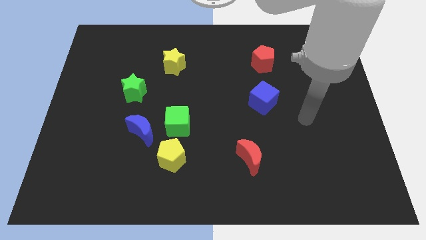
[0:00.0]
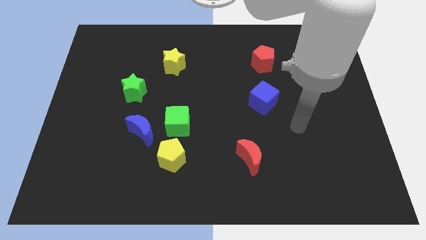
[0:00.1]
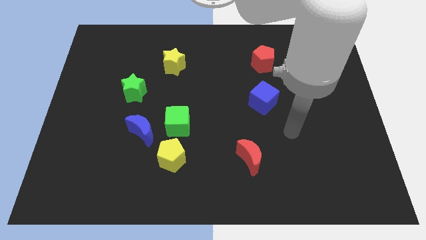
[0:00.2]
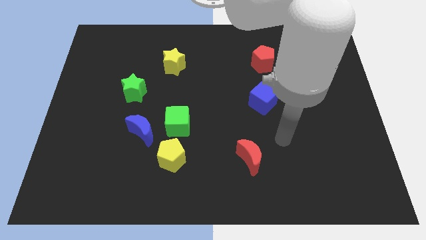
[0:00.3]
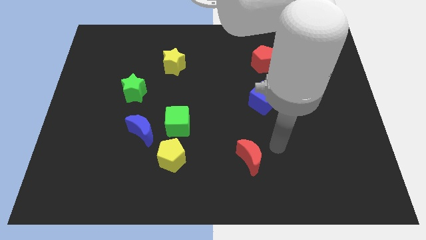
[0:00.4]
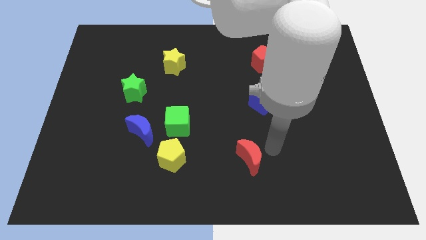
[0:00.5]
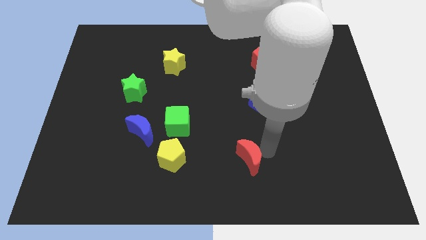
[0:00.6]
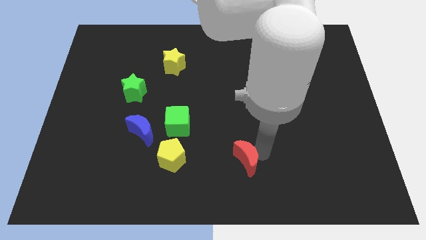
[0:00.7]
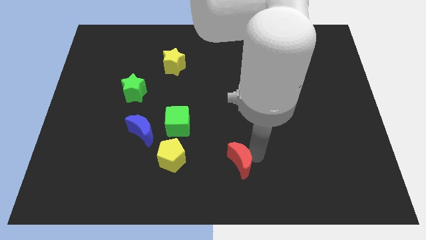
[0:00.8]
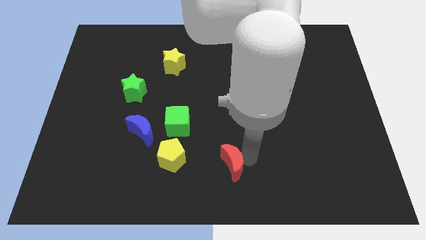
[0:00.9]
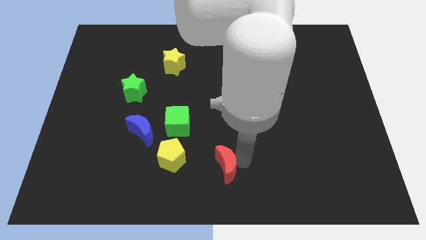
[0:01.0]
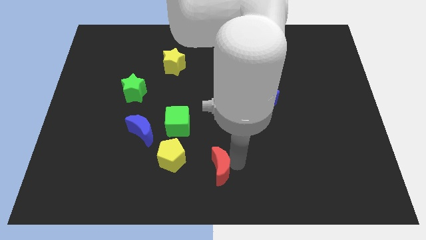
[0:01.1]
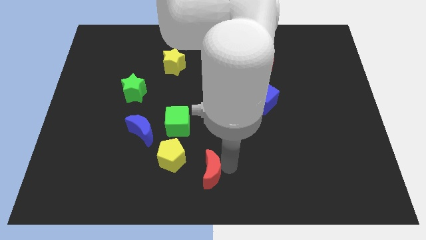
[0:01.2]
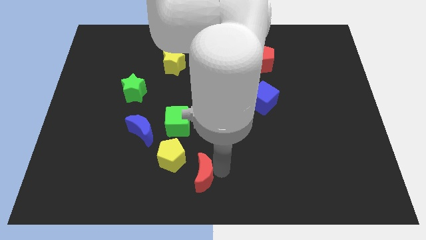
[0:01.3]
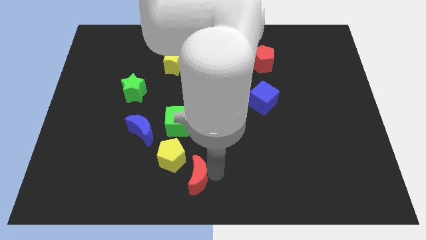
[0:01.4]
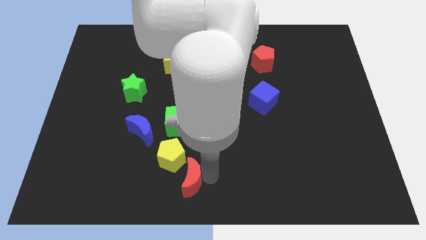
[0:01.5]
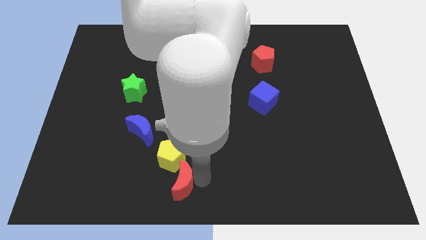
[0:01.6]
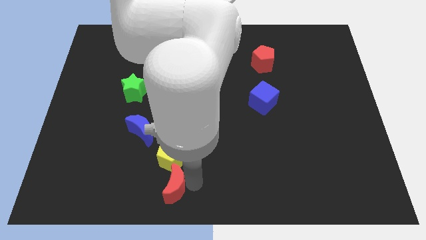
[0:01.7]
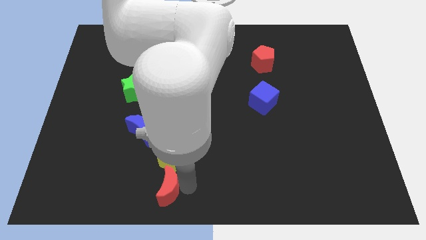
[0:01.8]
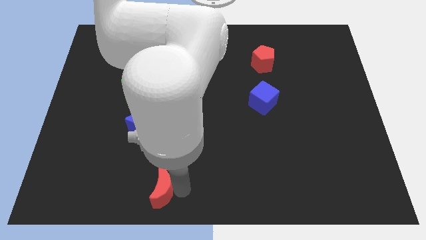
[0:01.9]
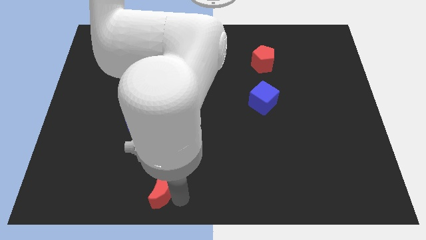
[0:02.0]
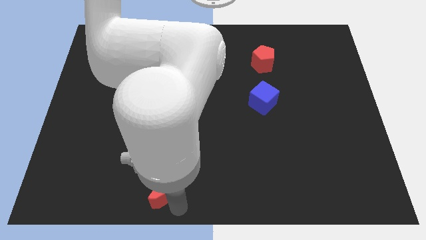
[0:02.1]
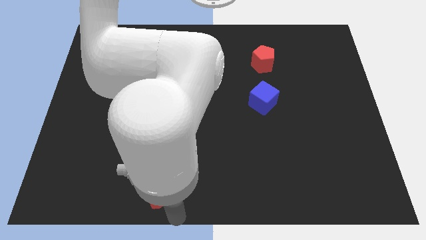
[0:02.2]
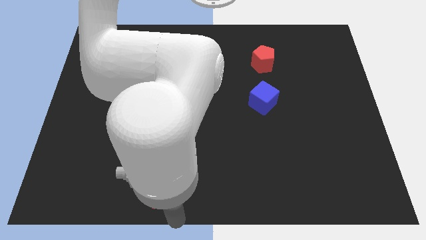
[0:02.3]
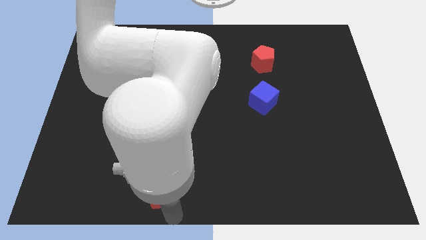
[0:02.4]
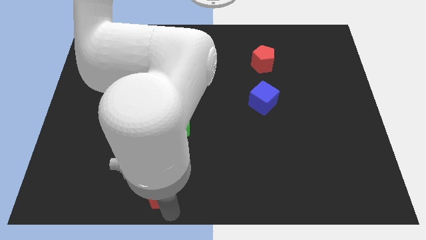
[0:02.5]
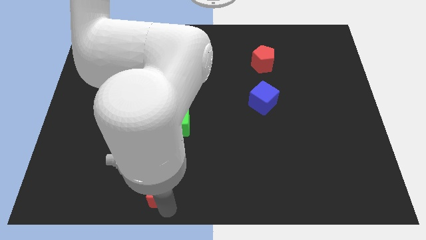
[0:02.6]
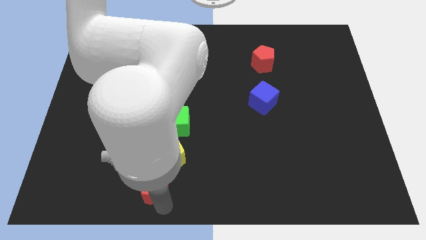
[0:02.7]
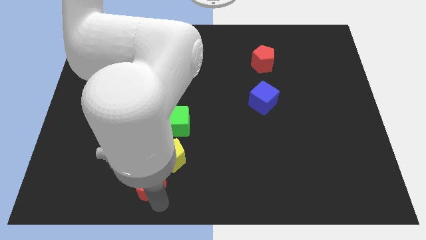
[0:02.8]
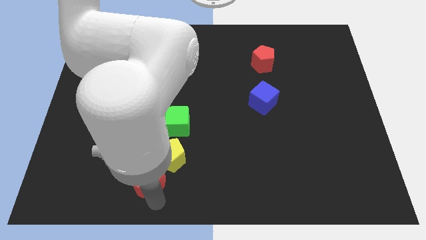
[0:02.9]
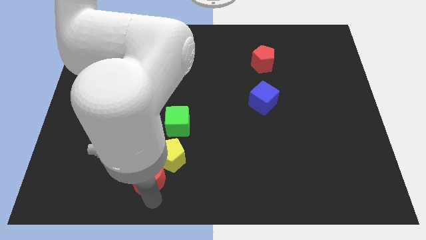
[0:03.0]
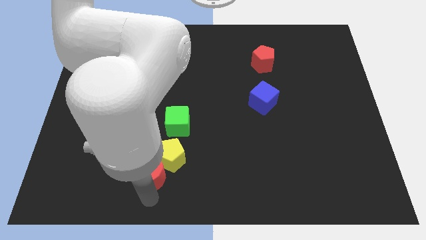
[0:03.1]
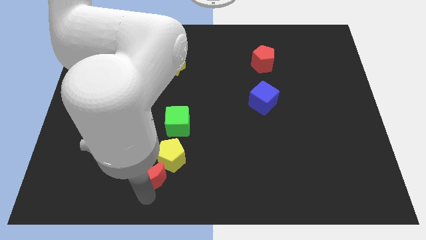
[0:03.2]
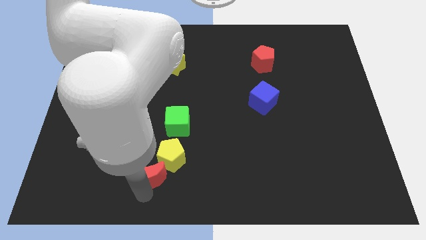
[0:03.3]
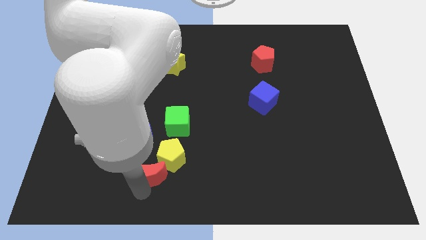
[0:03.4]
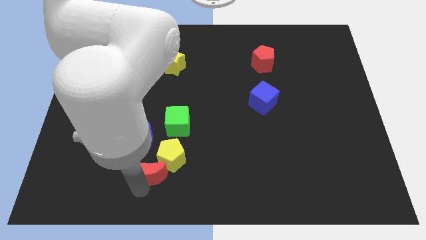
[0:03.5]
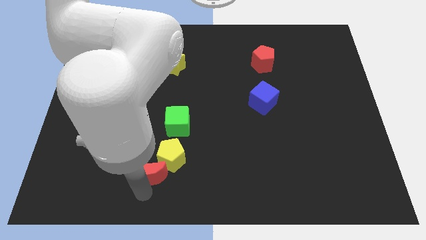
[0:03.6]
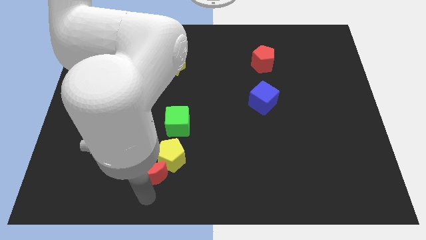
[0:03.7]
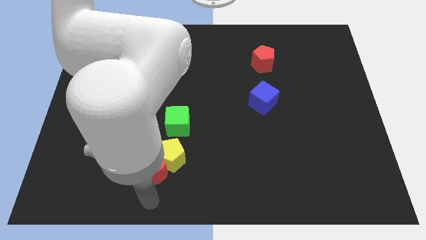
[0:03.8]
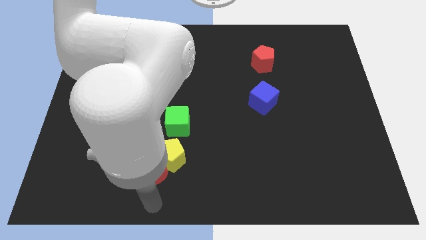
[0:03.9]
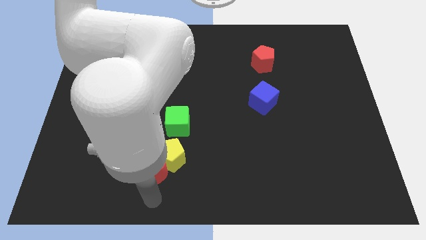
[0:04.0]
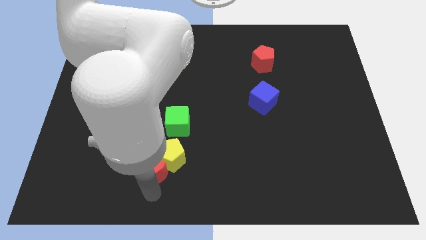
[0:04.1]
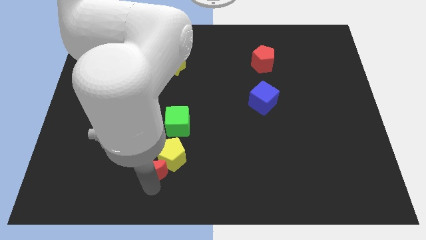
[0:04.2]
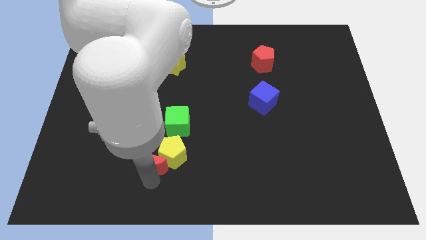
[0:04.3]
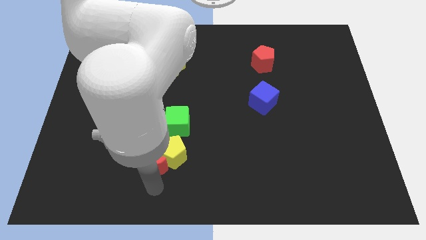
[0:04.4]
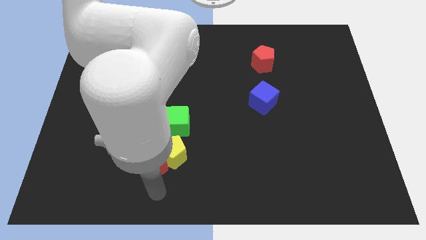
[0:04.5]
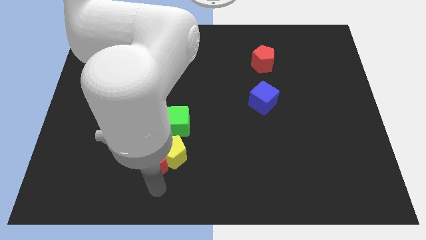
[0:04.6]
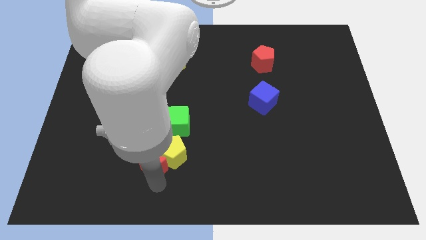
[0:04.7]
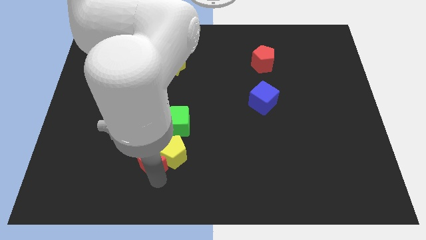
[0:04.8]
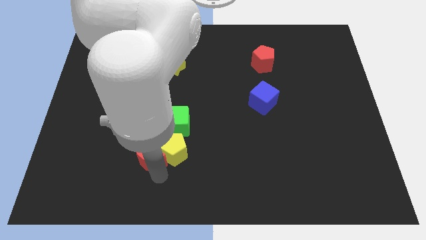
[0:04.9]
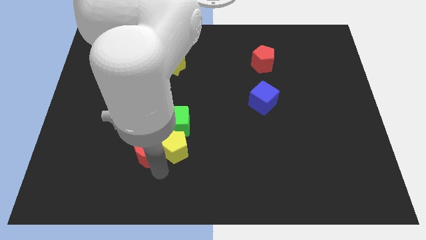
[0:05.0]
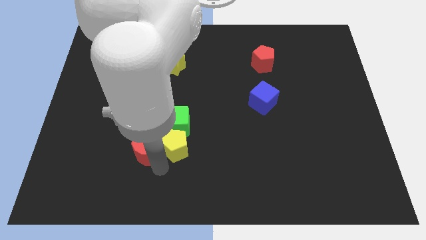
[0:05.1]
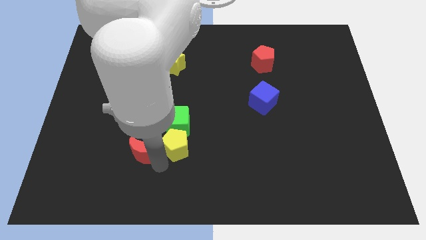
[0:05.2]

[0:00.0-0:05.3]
move the red moon next to the blue moon

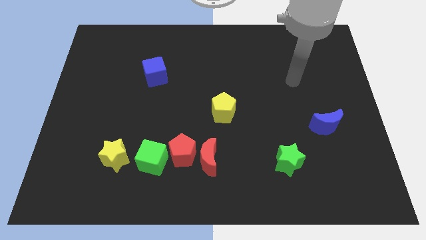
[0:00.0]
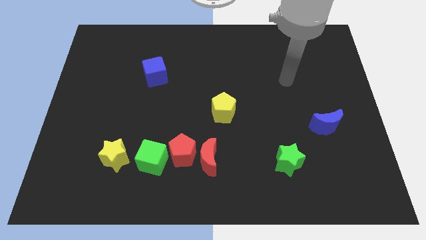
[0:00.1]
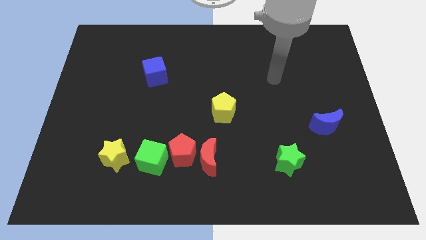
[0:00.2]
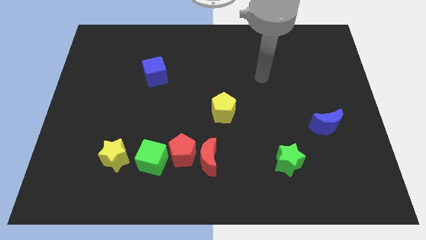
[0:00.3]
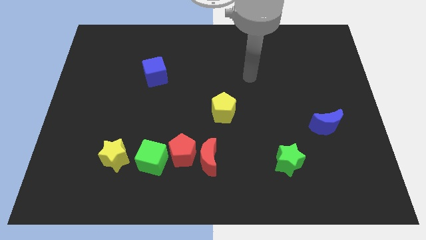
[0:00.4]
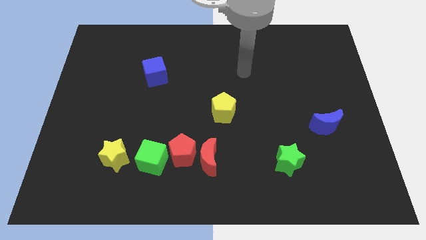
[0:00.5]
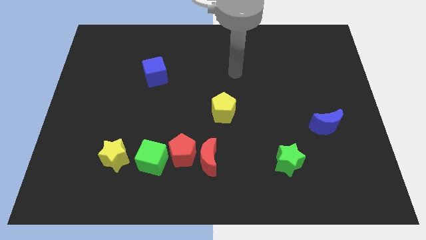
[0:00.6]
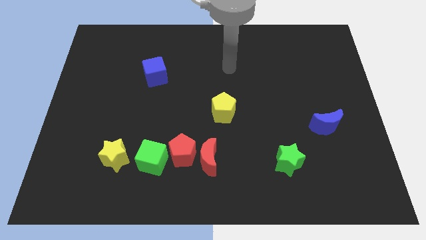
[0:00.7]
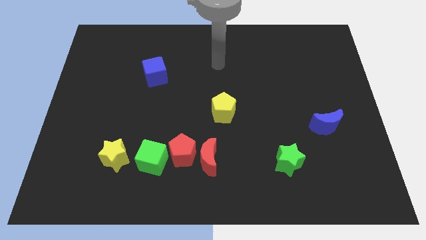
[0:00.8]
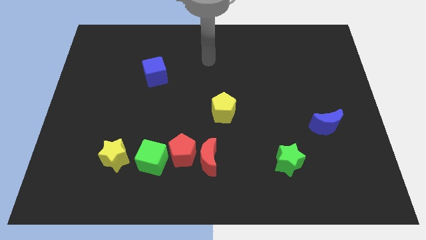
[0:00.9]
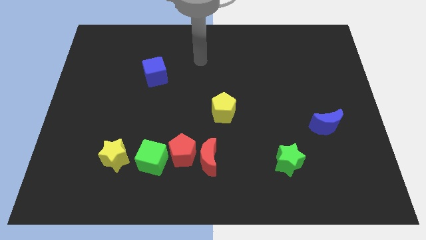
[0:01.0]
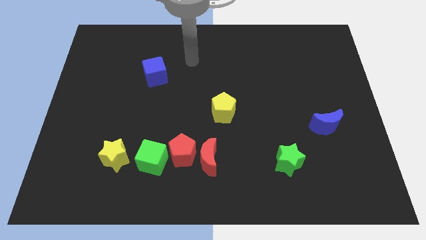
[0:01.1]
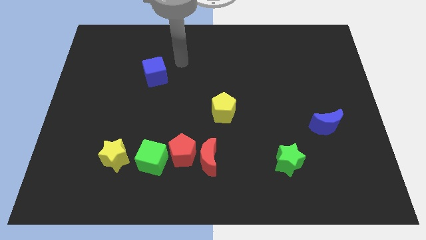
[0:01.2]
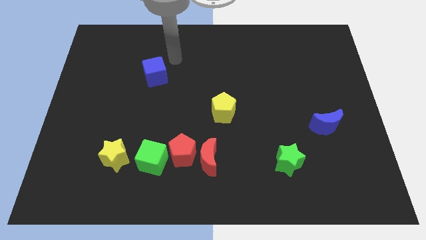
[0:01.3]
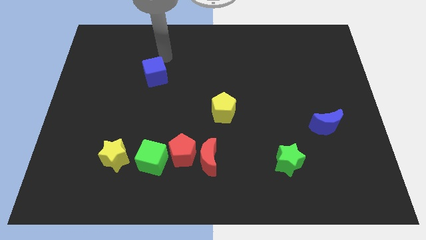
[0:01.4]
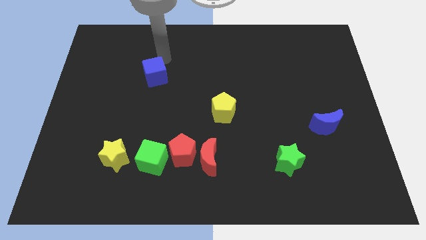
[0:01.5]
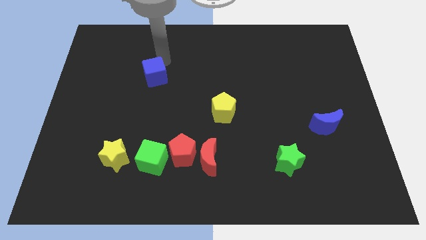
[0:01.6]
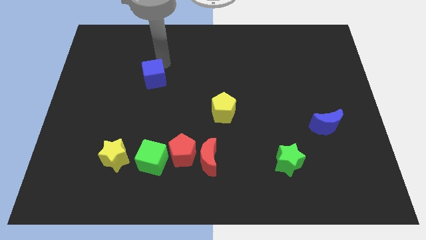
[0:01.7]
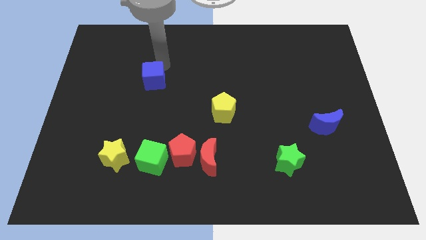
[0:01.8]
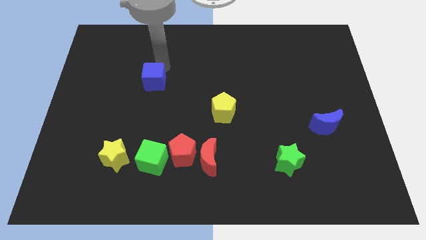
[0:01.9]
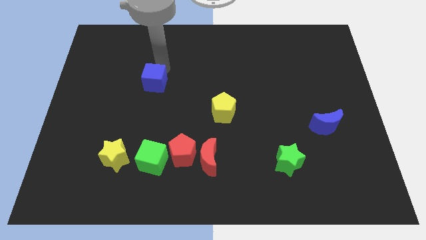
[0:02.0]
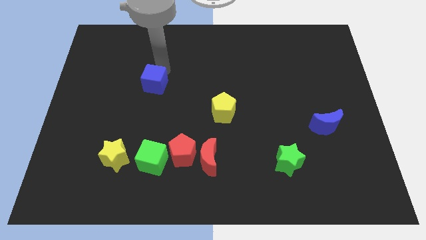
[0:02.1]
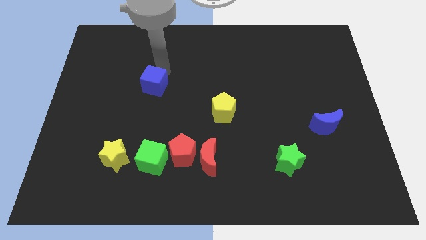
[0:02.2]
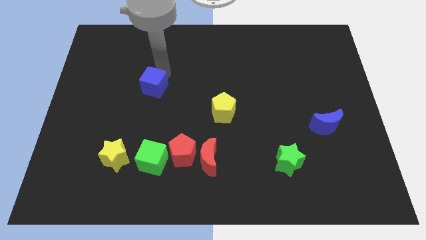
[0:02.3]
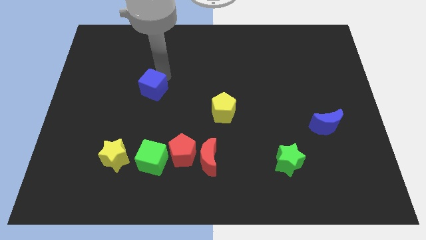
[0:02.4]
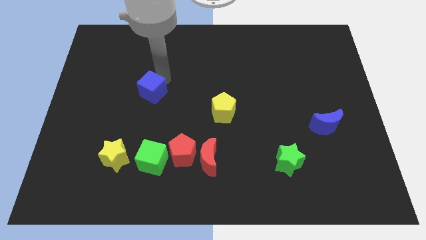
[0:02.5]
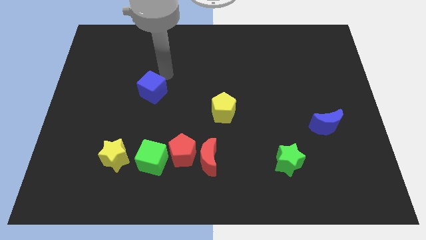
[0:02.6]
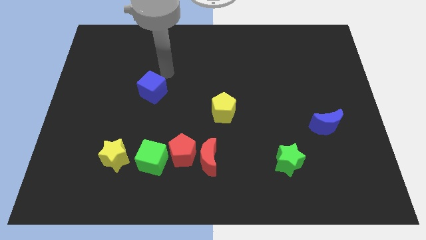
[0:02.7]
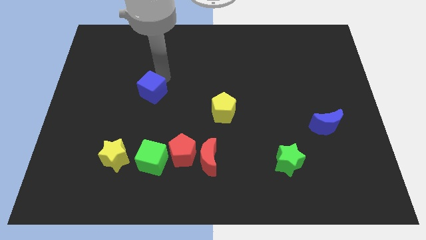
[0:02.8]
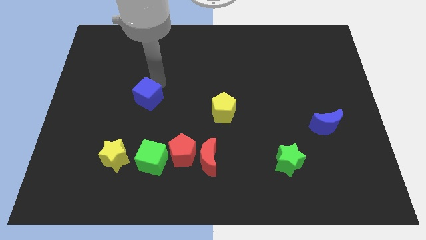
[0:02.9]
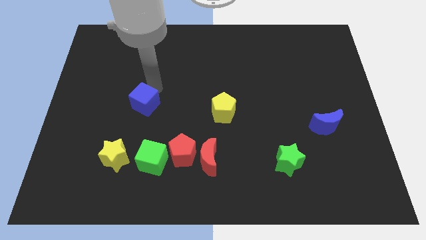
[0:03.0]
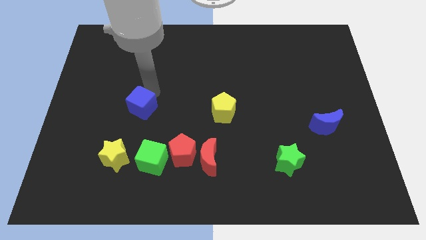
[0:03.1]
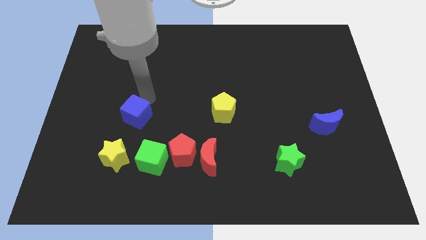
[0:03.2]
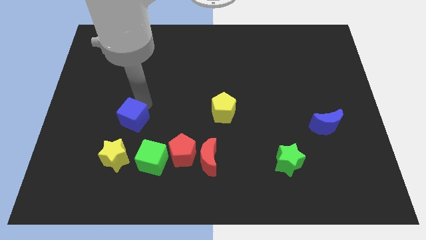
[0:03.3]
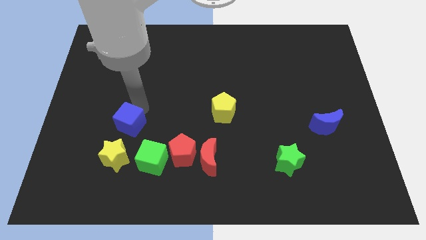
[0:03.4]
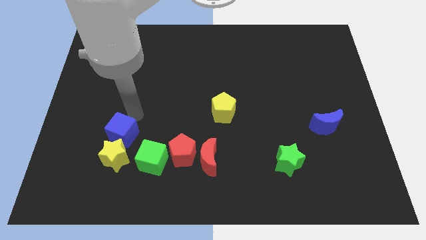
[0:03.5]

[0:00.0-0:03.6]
put the blue cube close to the yellow star
